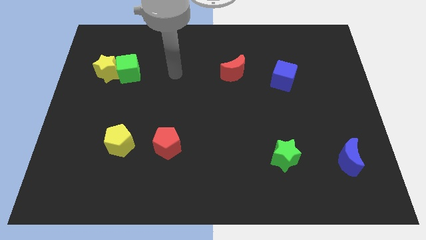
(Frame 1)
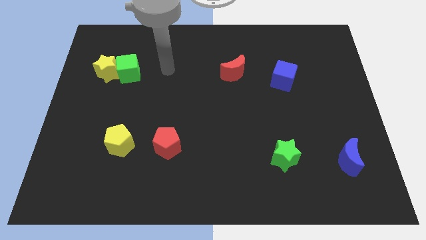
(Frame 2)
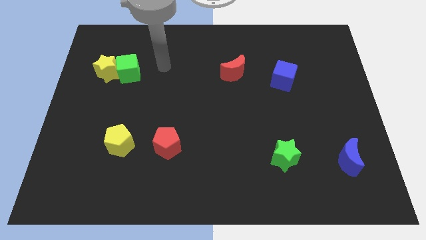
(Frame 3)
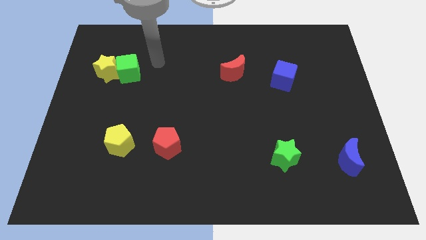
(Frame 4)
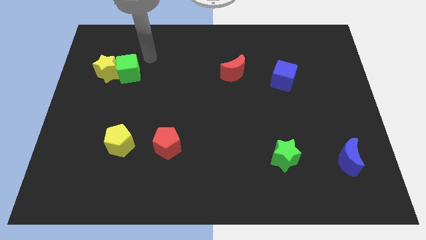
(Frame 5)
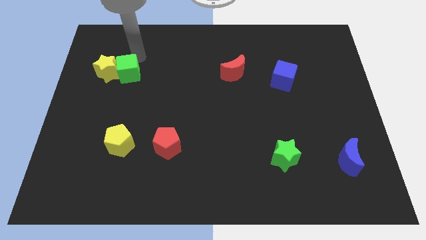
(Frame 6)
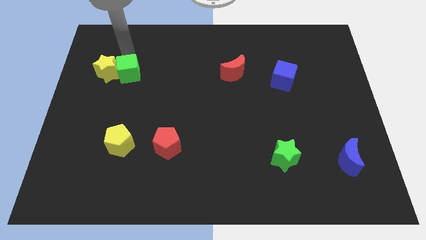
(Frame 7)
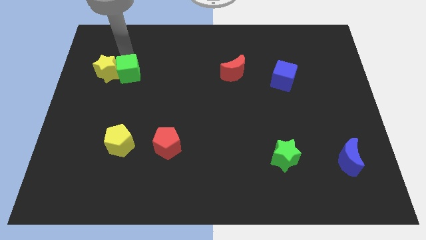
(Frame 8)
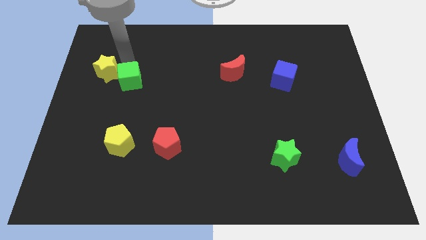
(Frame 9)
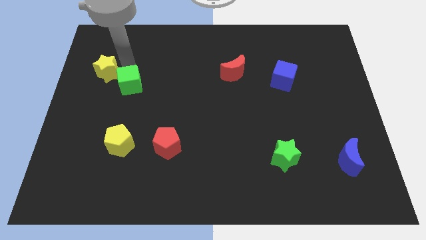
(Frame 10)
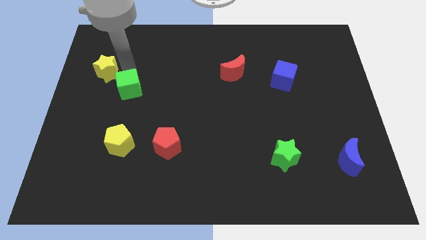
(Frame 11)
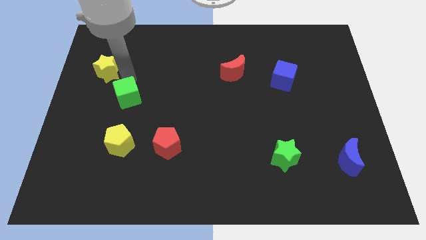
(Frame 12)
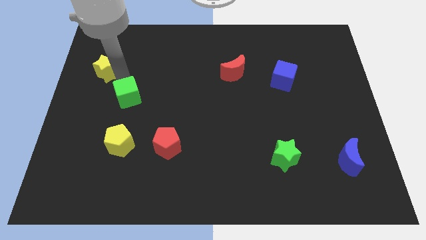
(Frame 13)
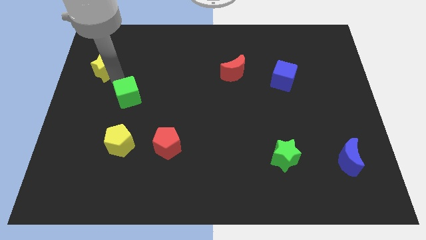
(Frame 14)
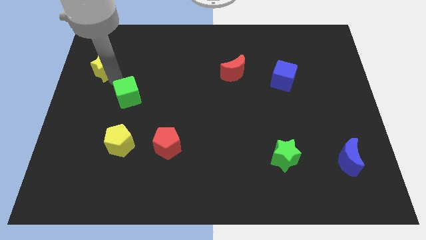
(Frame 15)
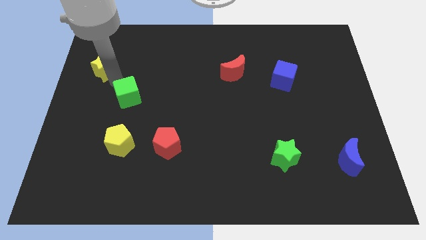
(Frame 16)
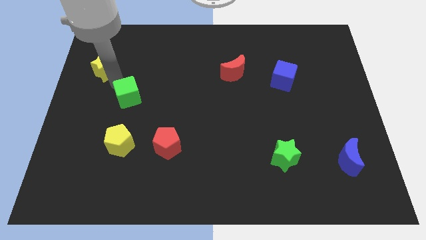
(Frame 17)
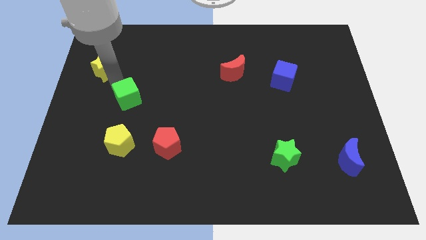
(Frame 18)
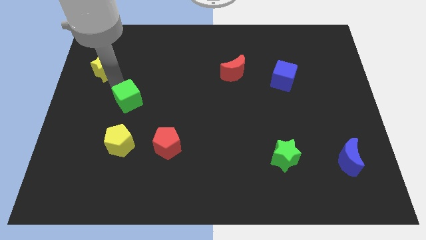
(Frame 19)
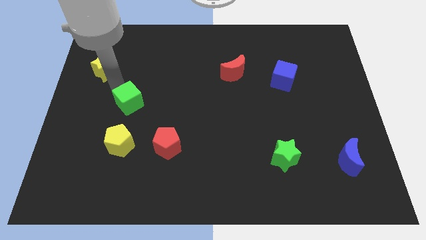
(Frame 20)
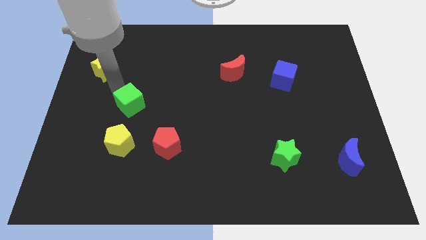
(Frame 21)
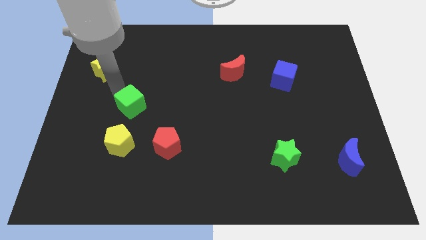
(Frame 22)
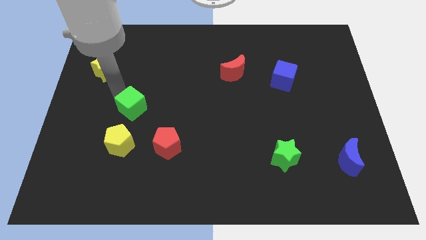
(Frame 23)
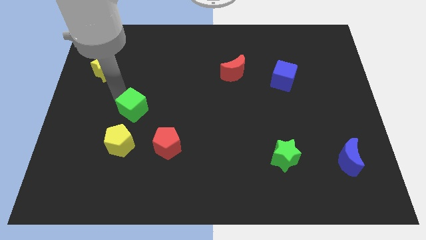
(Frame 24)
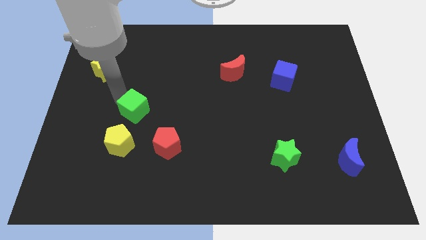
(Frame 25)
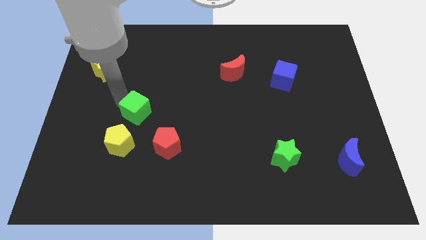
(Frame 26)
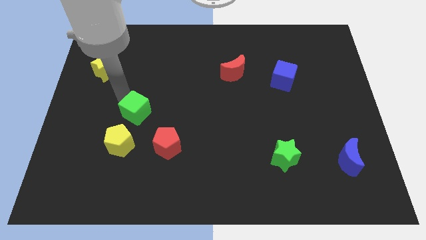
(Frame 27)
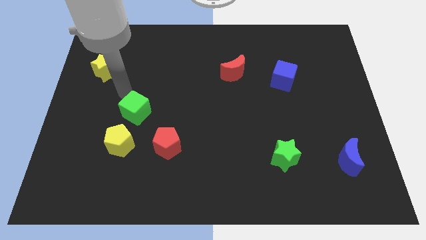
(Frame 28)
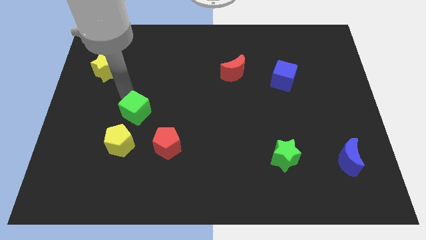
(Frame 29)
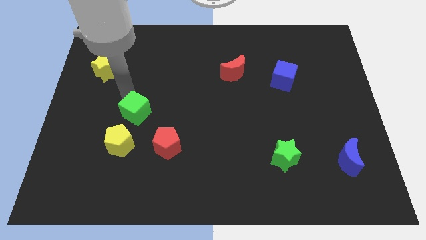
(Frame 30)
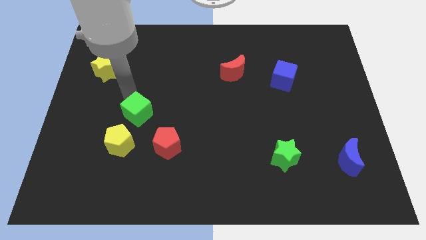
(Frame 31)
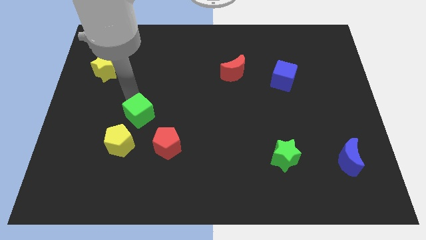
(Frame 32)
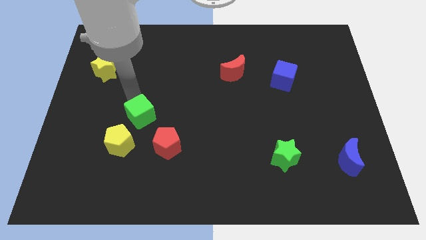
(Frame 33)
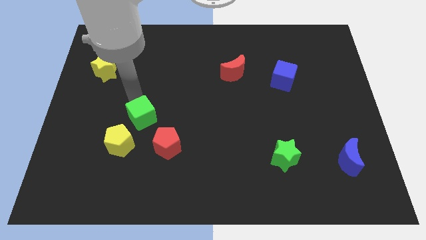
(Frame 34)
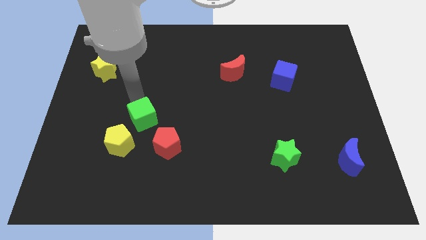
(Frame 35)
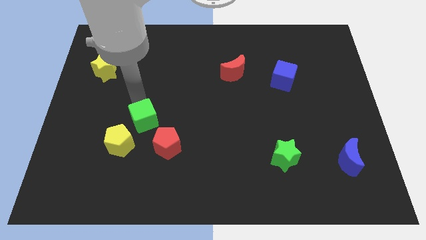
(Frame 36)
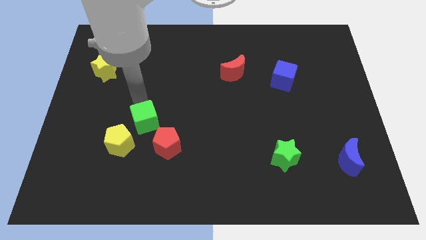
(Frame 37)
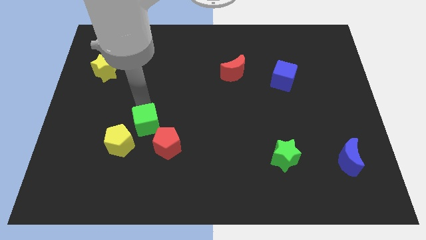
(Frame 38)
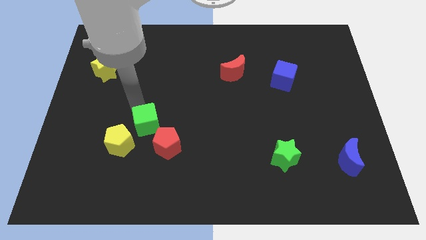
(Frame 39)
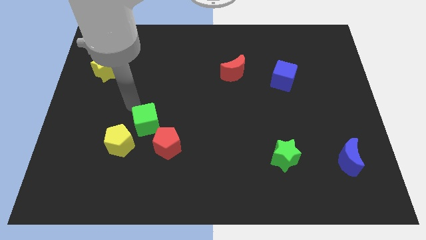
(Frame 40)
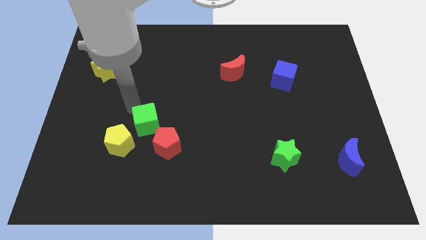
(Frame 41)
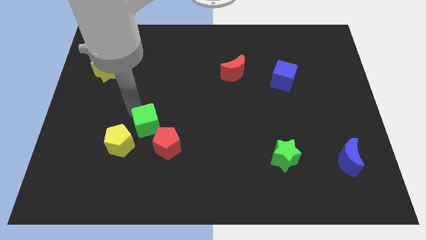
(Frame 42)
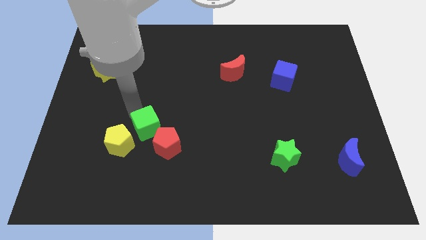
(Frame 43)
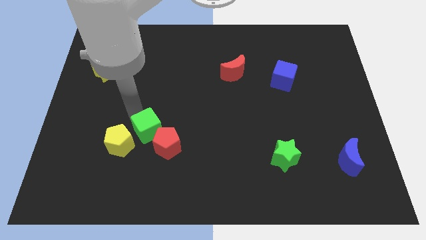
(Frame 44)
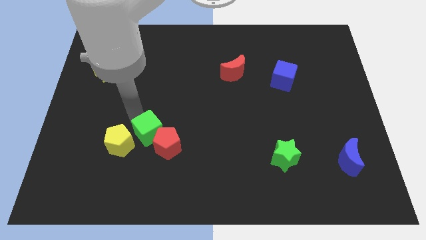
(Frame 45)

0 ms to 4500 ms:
move the green cube to the red pentagon

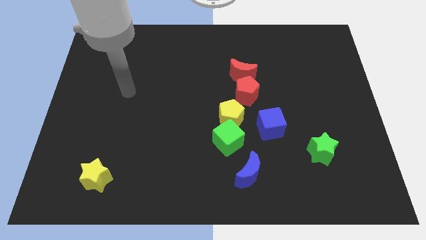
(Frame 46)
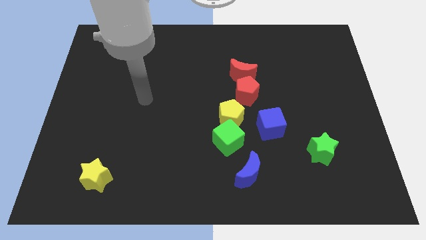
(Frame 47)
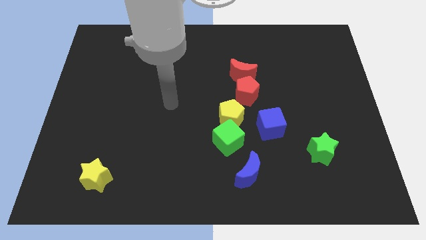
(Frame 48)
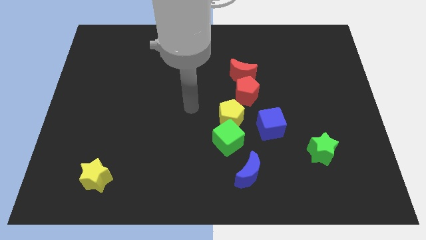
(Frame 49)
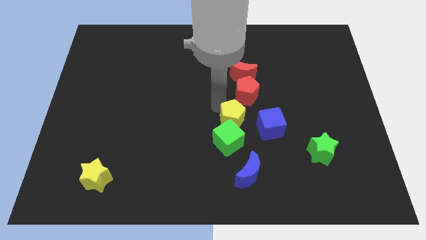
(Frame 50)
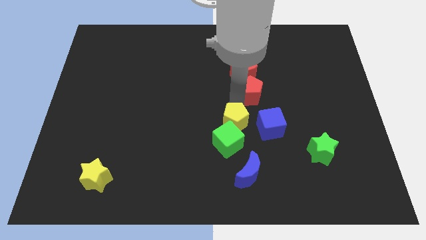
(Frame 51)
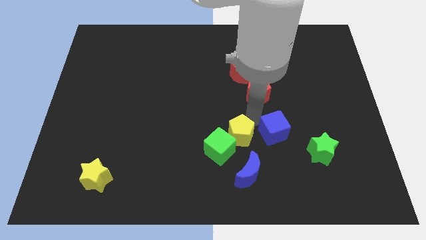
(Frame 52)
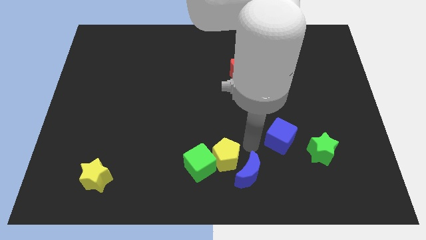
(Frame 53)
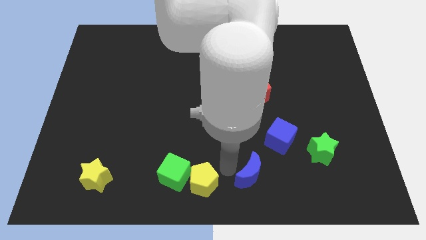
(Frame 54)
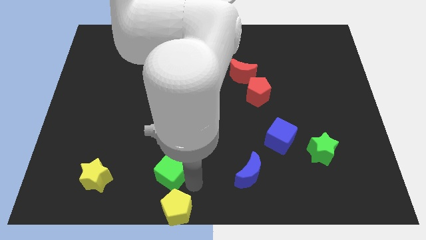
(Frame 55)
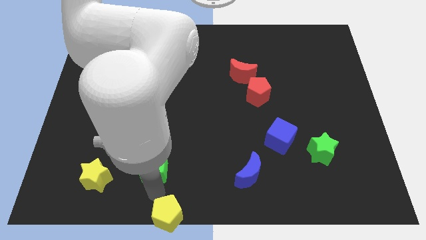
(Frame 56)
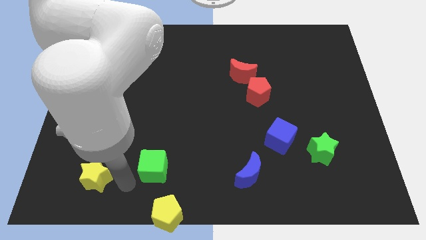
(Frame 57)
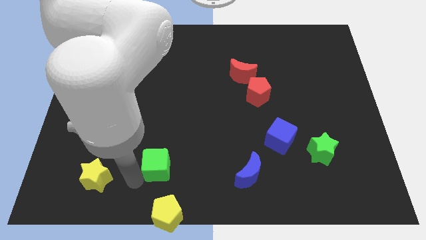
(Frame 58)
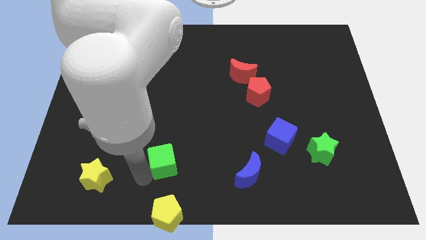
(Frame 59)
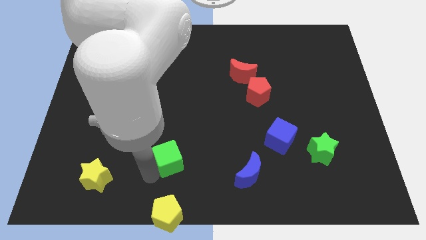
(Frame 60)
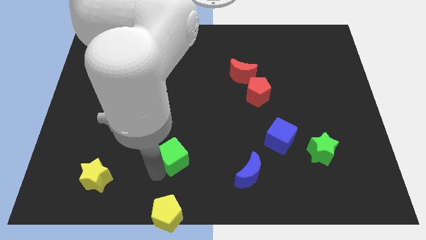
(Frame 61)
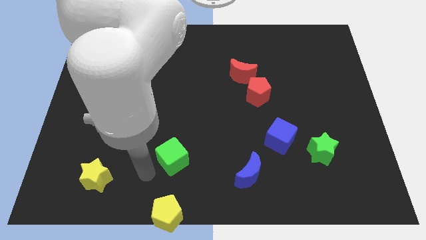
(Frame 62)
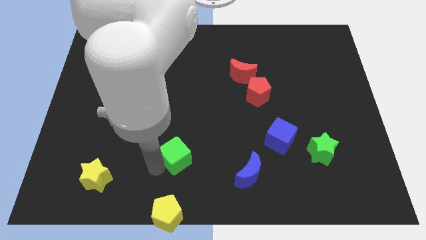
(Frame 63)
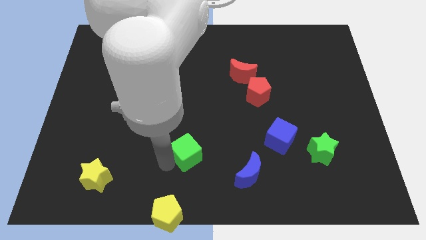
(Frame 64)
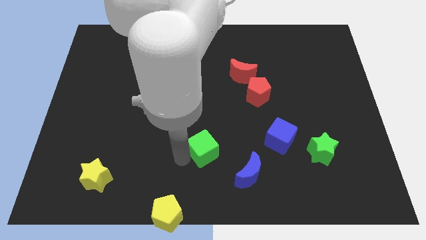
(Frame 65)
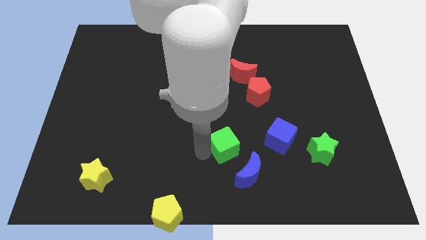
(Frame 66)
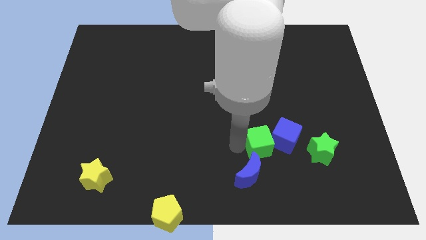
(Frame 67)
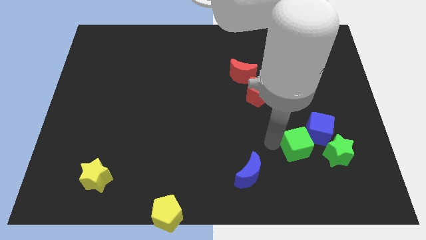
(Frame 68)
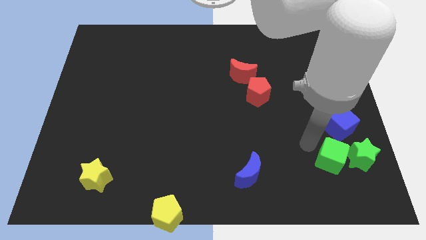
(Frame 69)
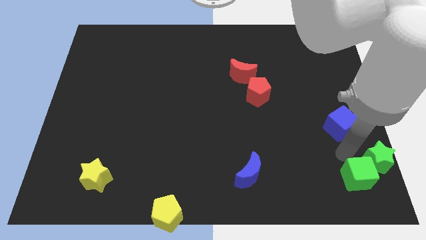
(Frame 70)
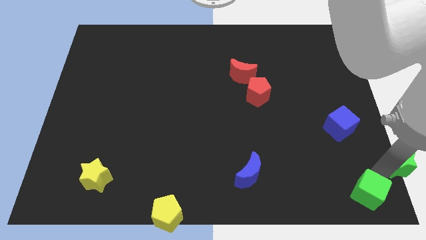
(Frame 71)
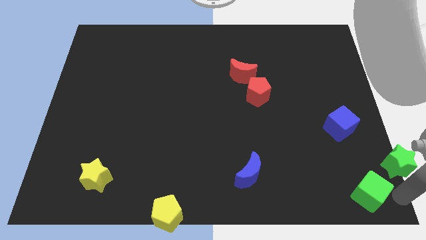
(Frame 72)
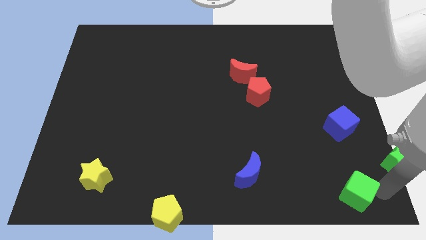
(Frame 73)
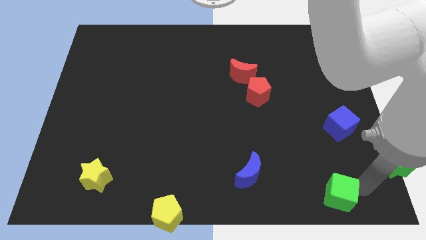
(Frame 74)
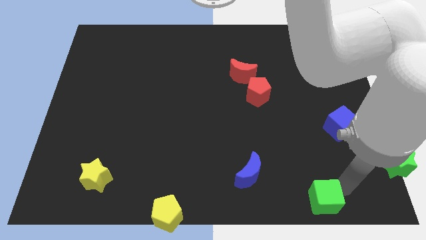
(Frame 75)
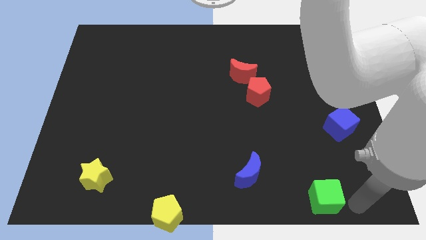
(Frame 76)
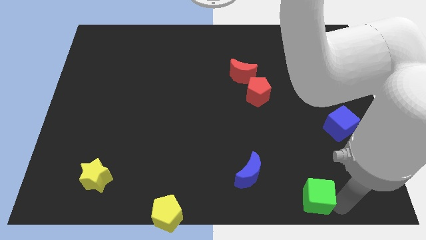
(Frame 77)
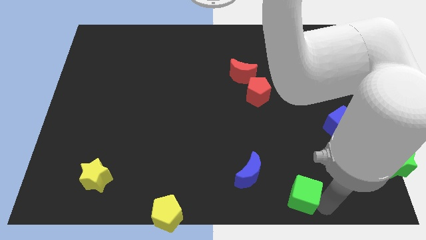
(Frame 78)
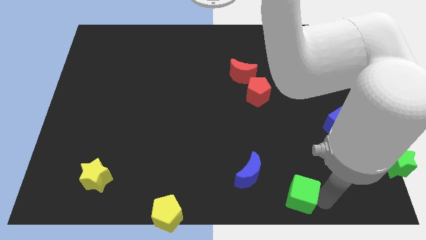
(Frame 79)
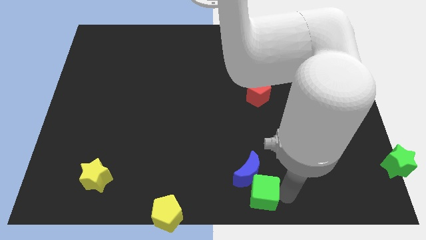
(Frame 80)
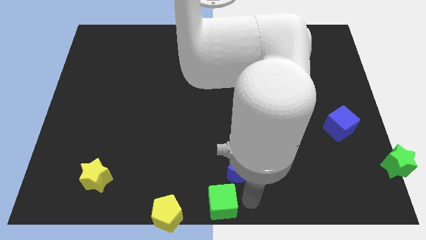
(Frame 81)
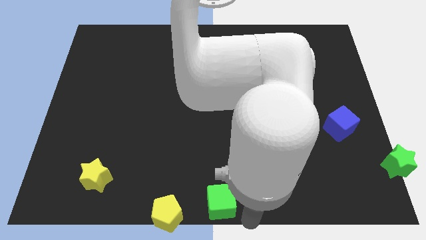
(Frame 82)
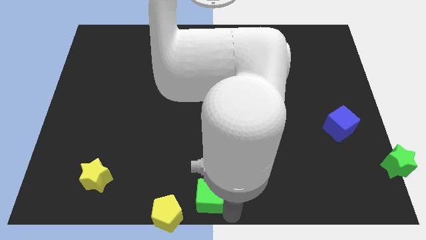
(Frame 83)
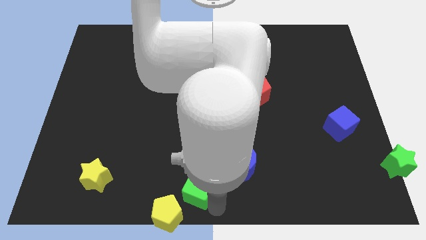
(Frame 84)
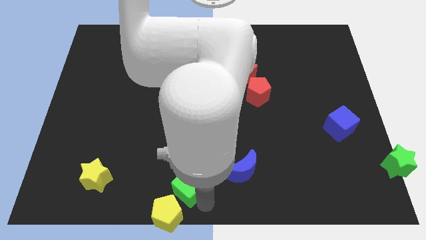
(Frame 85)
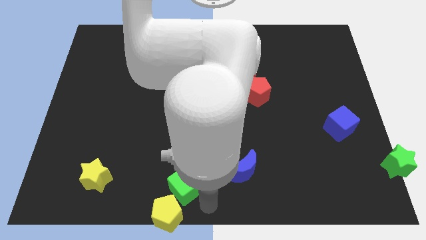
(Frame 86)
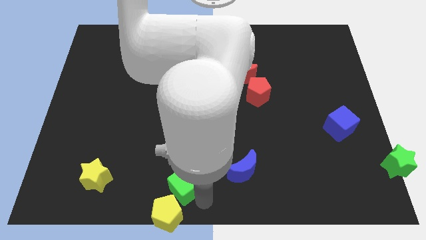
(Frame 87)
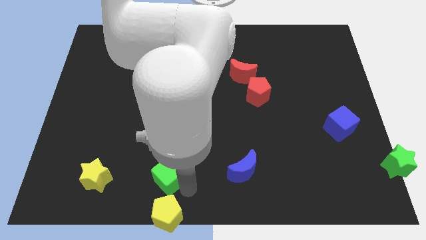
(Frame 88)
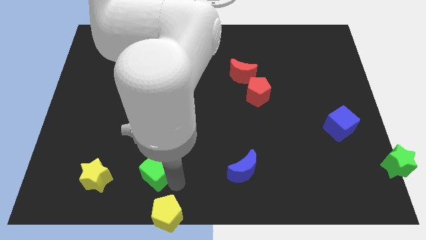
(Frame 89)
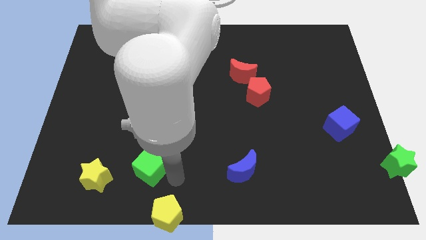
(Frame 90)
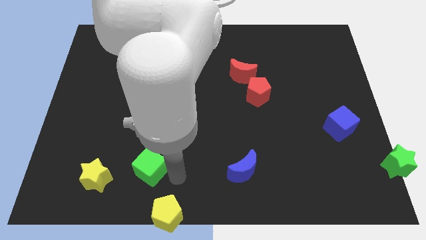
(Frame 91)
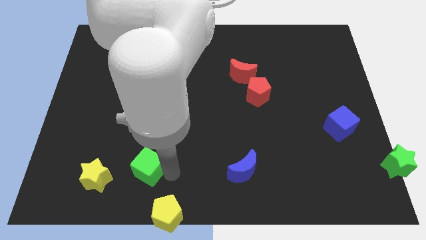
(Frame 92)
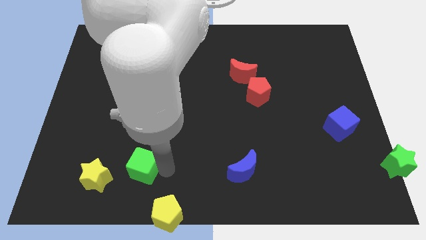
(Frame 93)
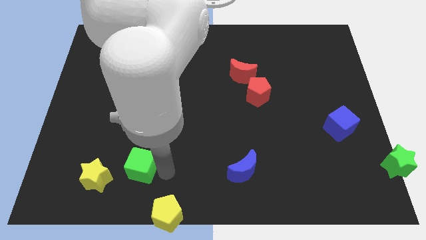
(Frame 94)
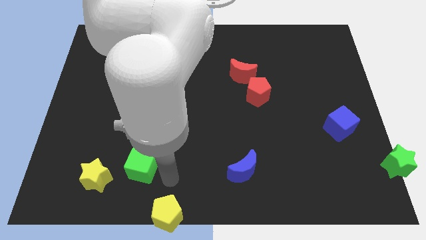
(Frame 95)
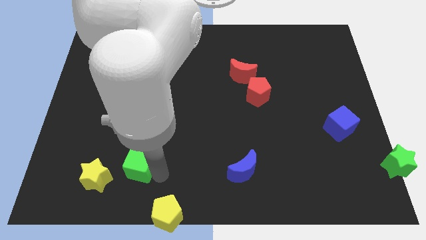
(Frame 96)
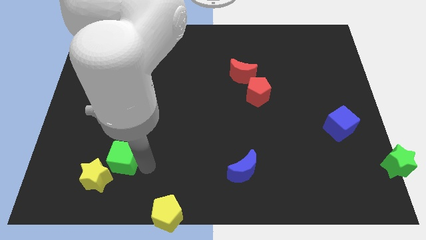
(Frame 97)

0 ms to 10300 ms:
put the green cube to the yellow star
